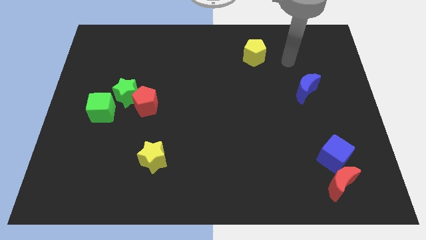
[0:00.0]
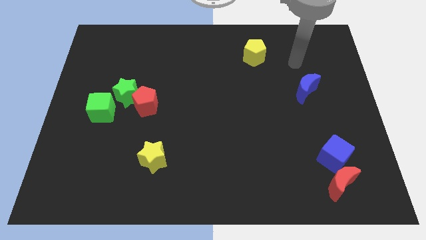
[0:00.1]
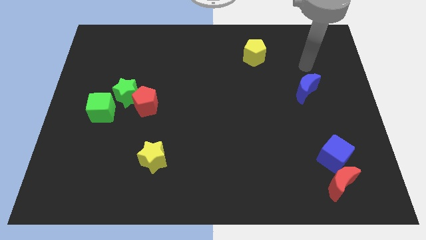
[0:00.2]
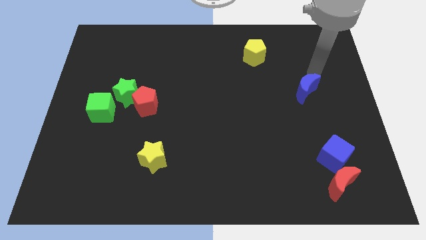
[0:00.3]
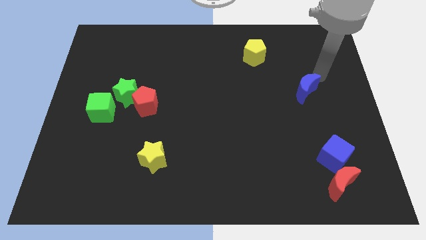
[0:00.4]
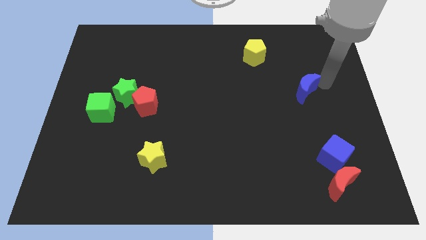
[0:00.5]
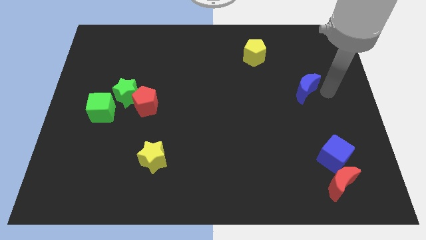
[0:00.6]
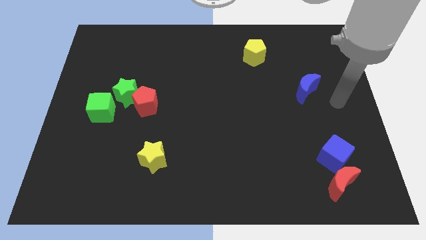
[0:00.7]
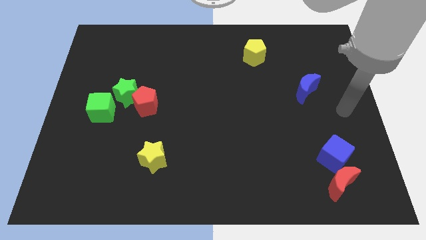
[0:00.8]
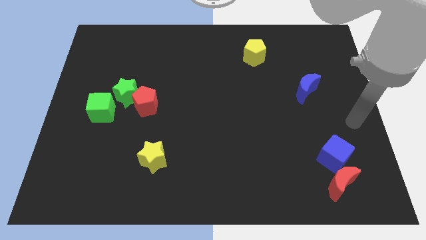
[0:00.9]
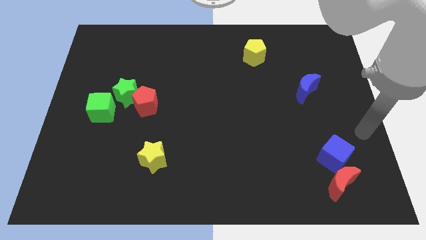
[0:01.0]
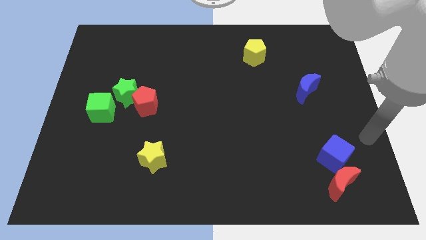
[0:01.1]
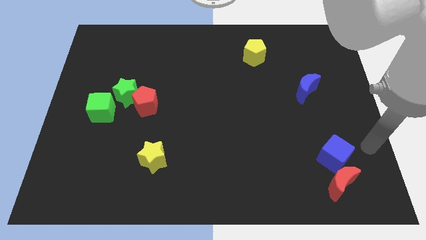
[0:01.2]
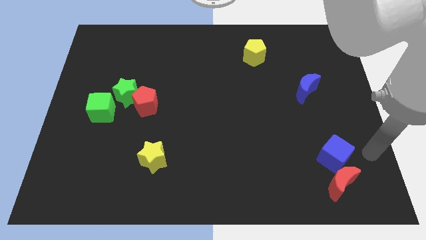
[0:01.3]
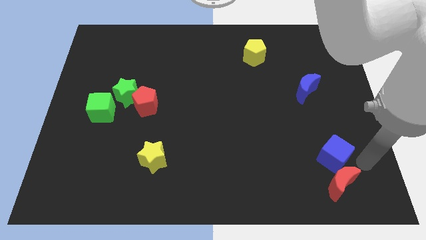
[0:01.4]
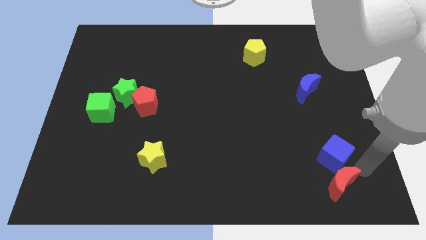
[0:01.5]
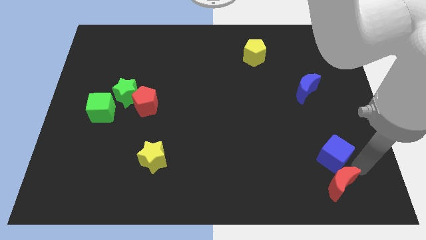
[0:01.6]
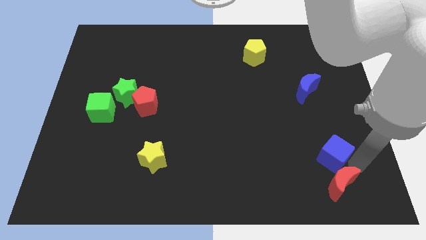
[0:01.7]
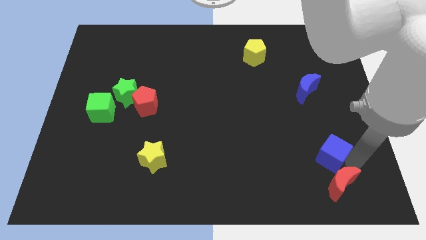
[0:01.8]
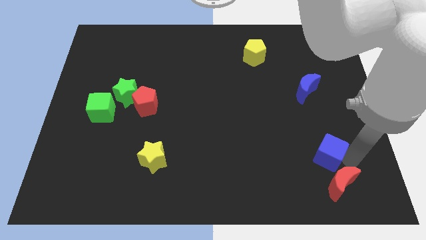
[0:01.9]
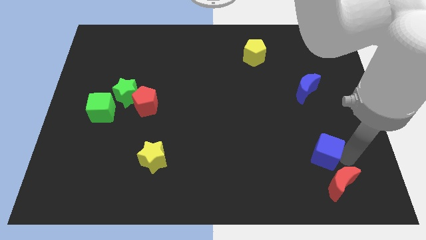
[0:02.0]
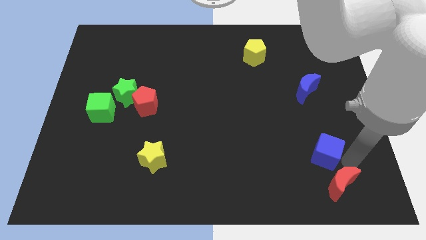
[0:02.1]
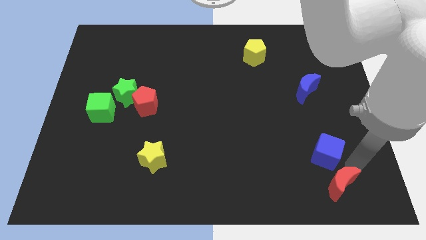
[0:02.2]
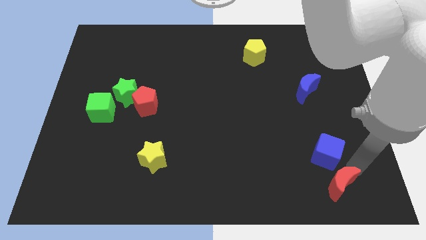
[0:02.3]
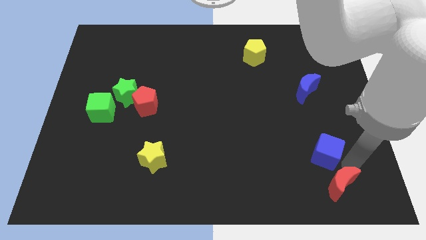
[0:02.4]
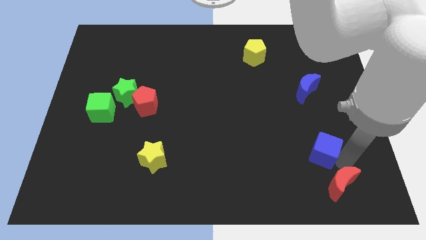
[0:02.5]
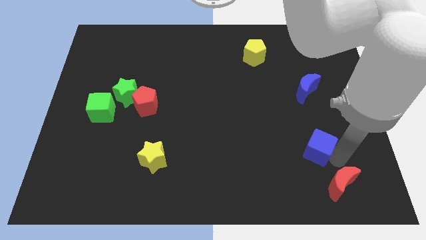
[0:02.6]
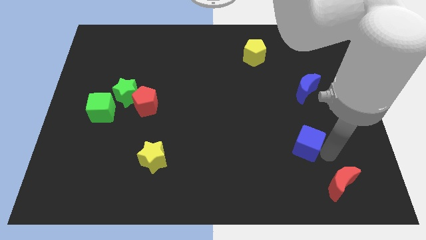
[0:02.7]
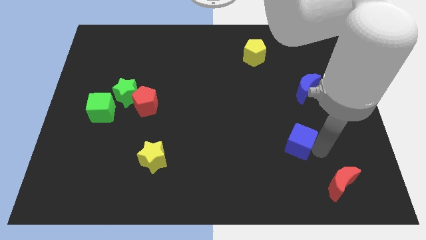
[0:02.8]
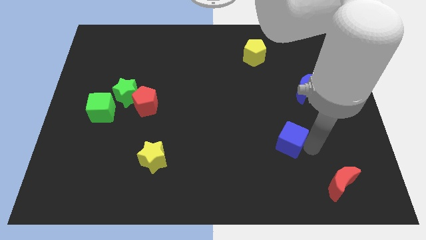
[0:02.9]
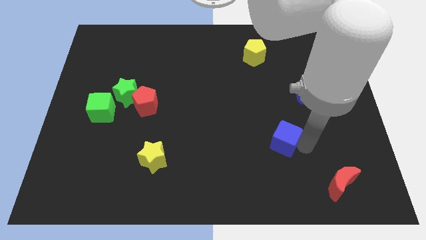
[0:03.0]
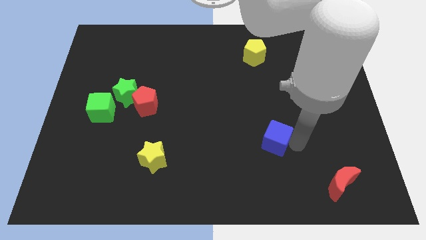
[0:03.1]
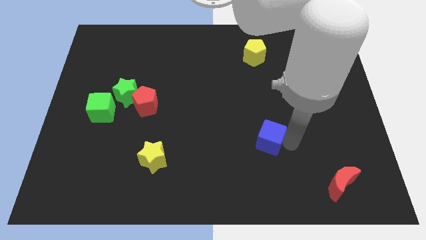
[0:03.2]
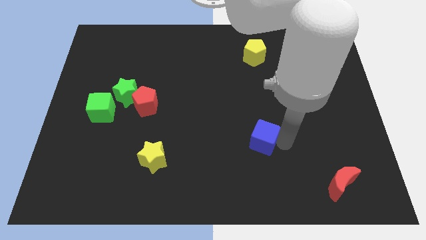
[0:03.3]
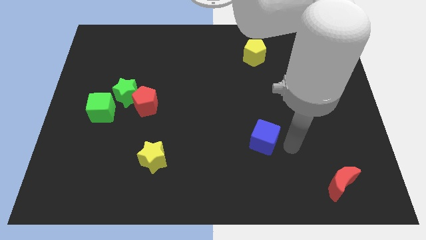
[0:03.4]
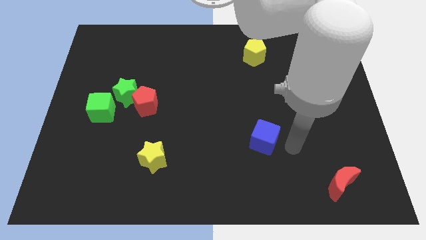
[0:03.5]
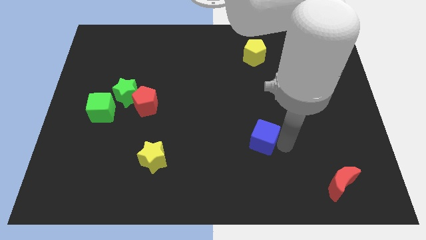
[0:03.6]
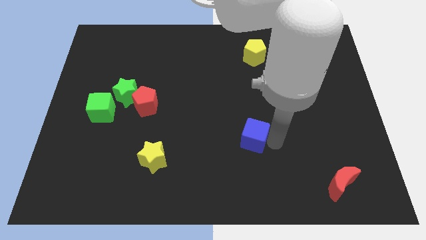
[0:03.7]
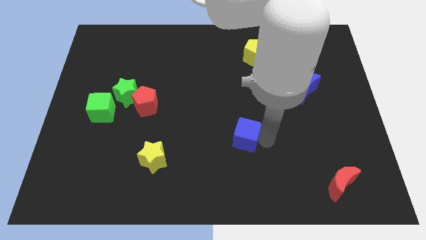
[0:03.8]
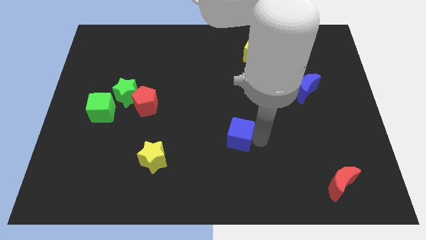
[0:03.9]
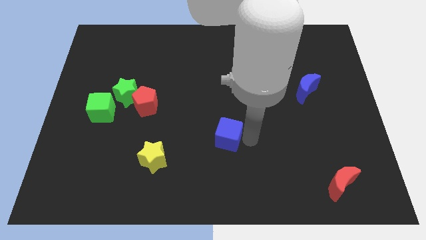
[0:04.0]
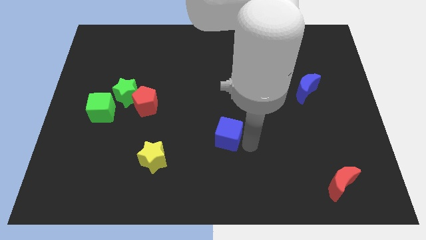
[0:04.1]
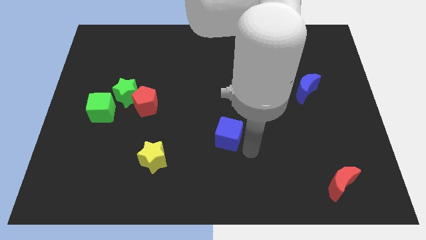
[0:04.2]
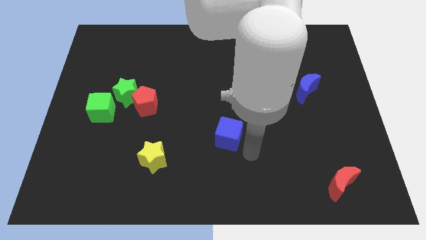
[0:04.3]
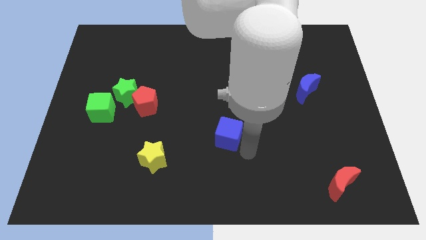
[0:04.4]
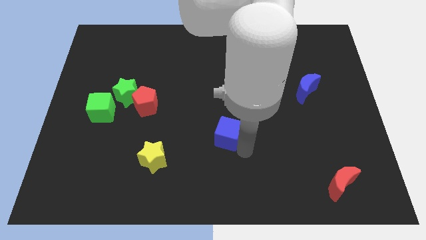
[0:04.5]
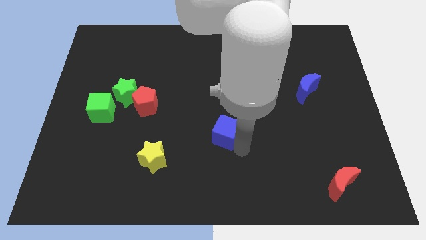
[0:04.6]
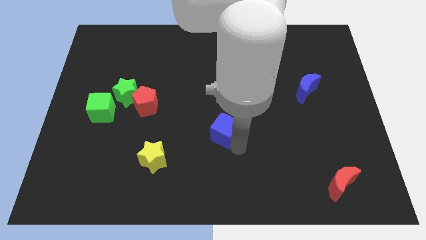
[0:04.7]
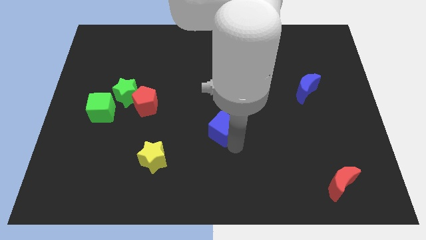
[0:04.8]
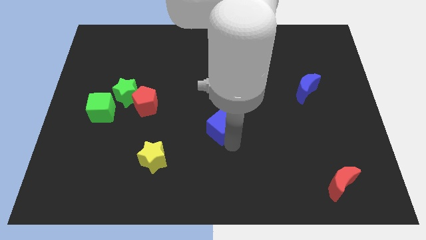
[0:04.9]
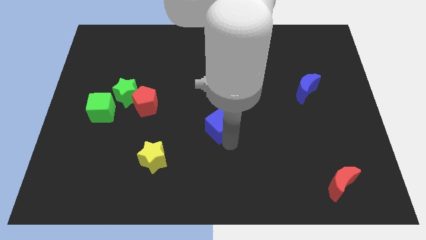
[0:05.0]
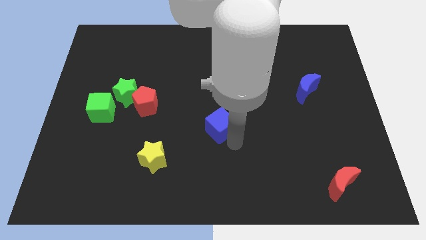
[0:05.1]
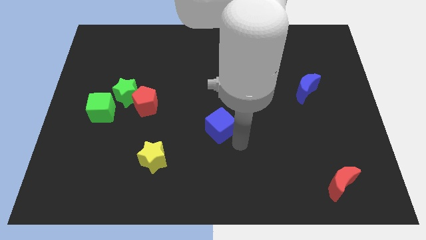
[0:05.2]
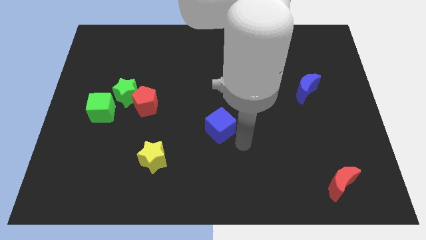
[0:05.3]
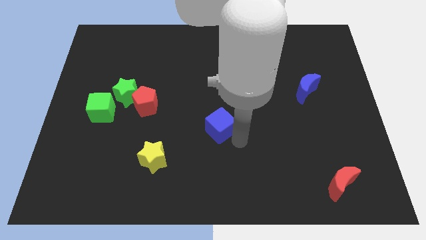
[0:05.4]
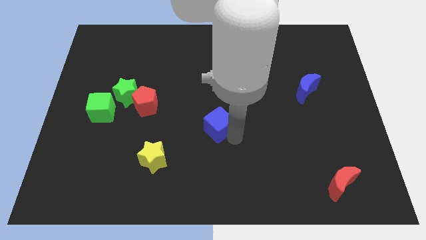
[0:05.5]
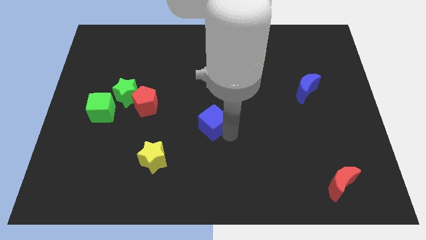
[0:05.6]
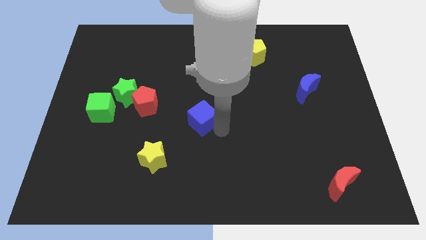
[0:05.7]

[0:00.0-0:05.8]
move the blue cube just right of the red pentagon

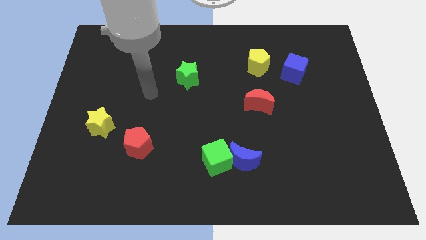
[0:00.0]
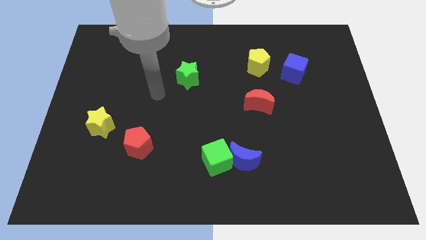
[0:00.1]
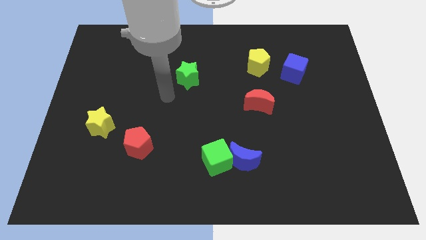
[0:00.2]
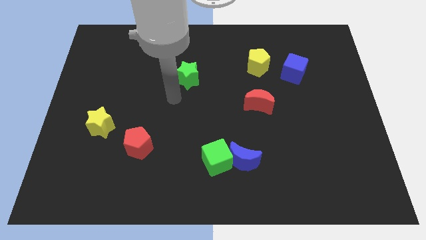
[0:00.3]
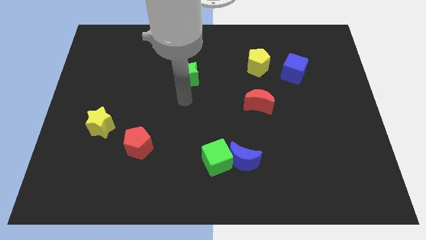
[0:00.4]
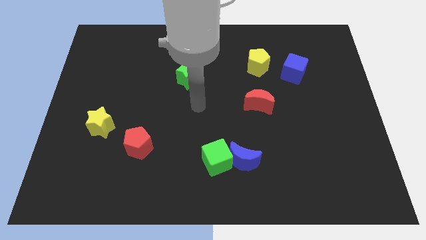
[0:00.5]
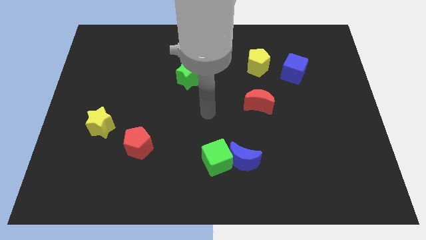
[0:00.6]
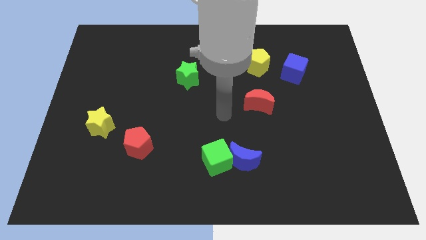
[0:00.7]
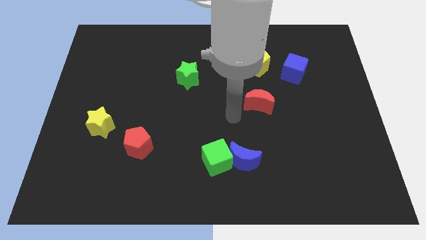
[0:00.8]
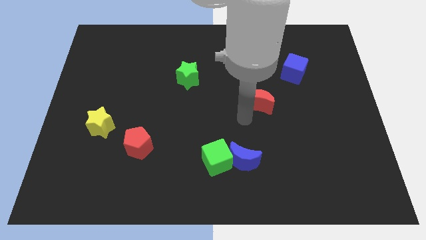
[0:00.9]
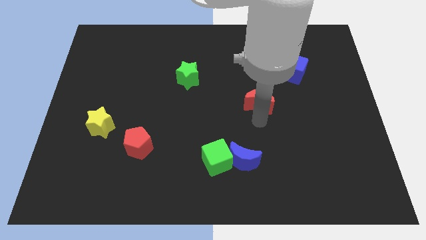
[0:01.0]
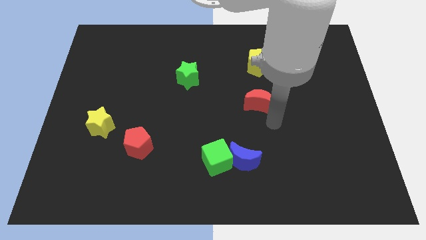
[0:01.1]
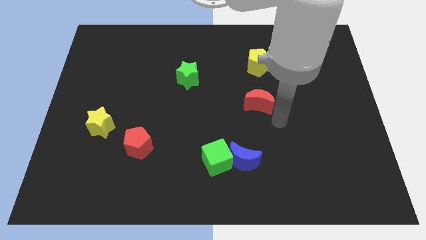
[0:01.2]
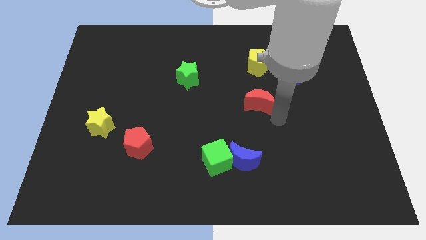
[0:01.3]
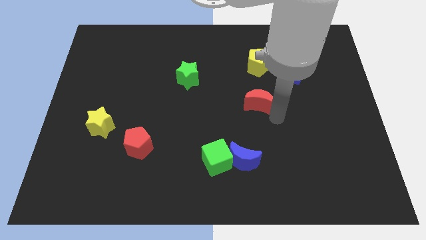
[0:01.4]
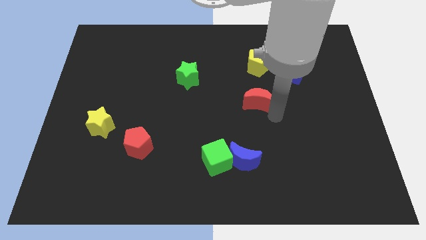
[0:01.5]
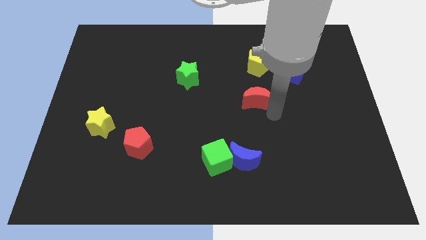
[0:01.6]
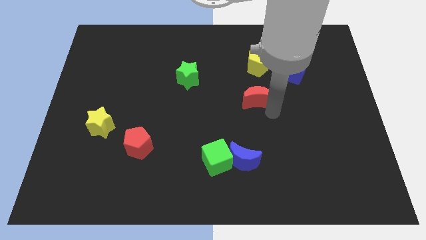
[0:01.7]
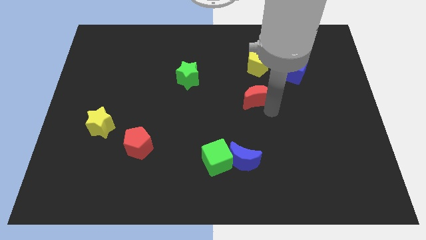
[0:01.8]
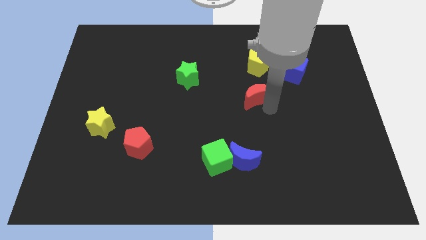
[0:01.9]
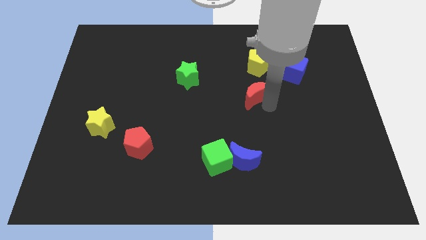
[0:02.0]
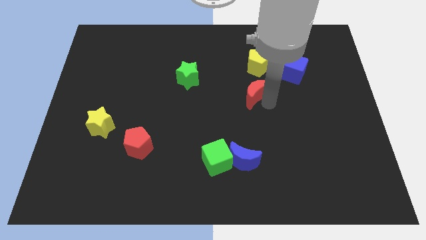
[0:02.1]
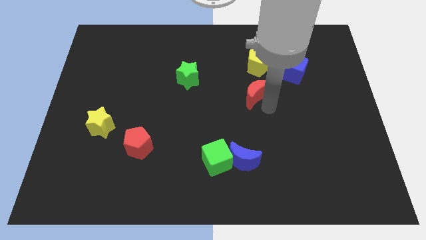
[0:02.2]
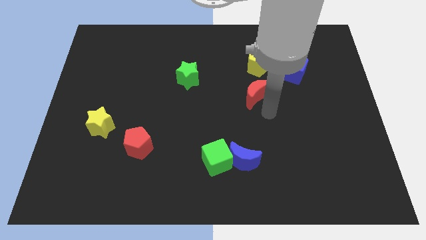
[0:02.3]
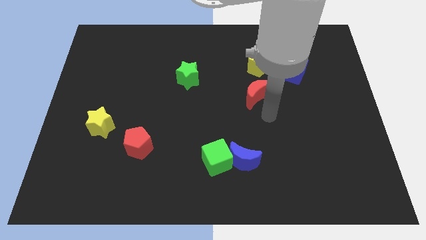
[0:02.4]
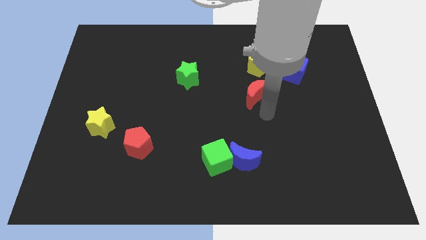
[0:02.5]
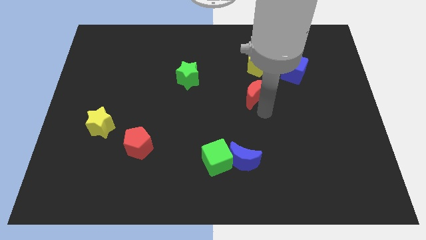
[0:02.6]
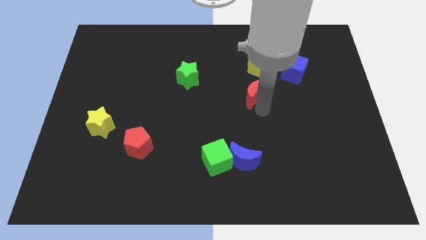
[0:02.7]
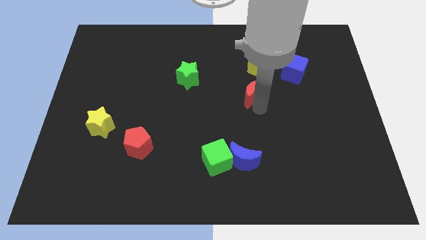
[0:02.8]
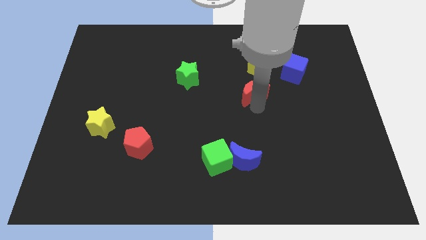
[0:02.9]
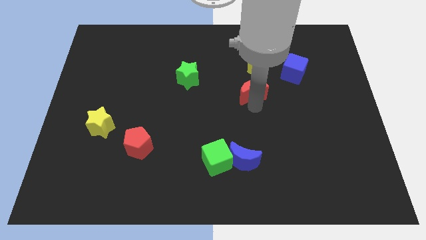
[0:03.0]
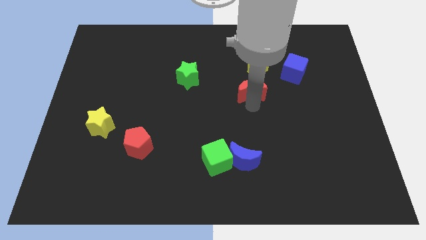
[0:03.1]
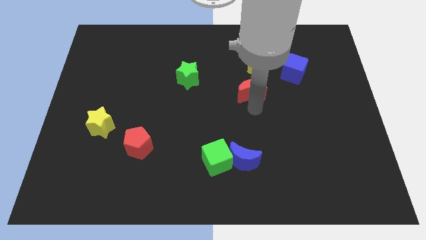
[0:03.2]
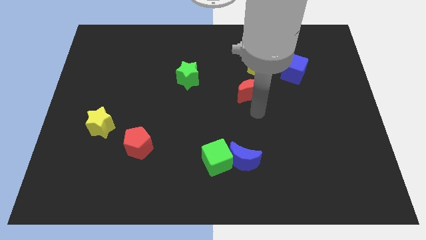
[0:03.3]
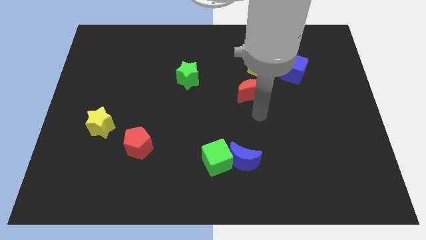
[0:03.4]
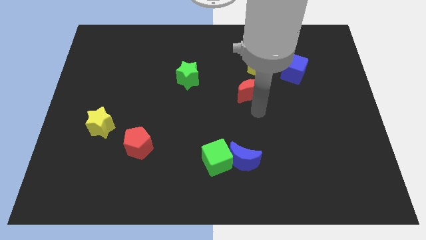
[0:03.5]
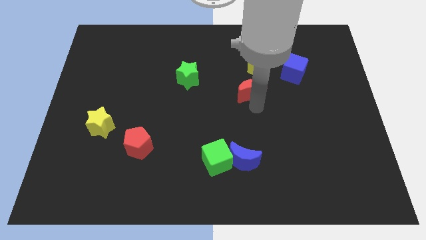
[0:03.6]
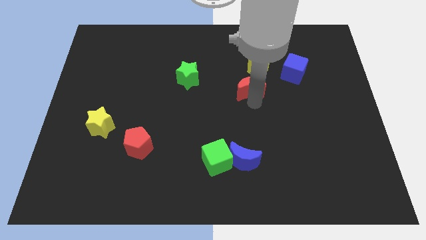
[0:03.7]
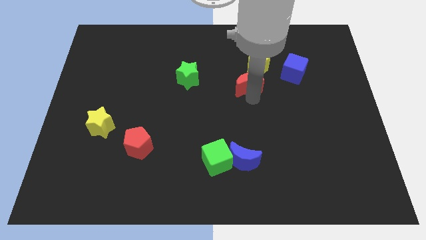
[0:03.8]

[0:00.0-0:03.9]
put the red moon left of the blue cube
